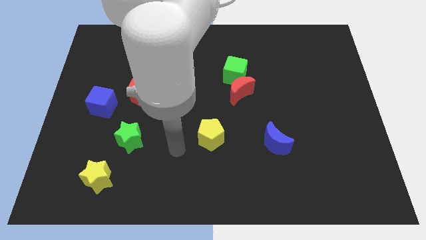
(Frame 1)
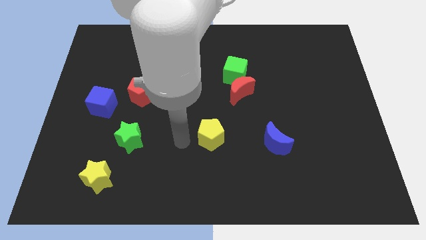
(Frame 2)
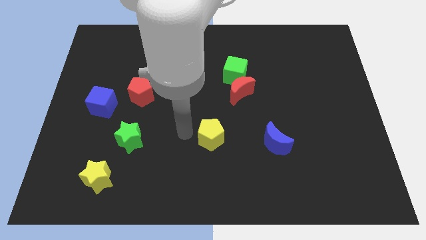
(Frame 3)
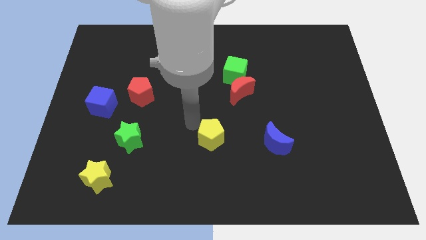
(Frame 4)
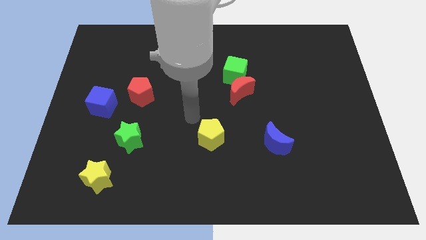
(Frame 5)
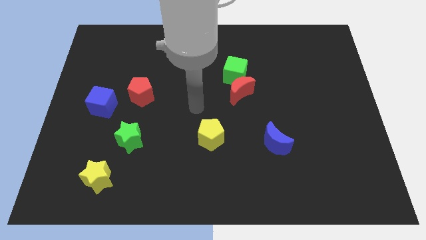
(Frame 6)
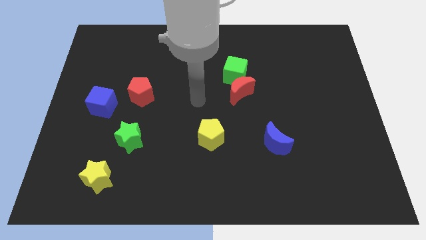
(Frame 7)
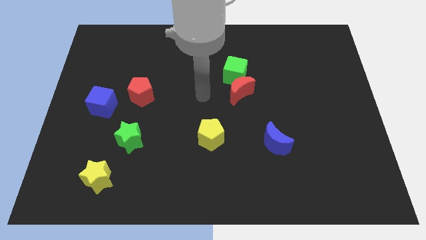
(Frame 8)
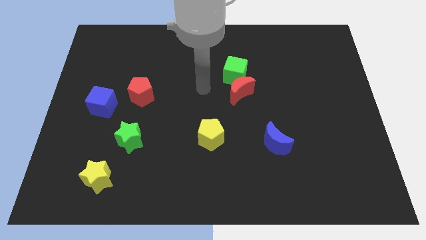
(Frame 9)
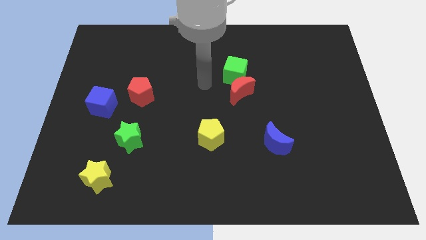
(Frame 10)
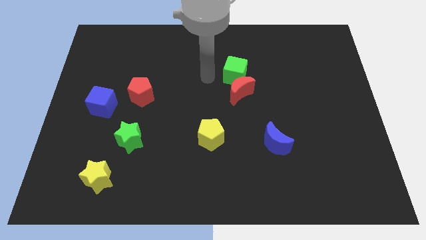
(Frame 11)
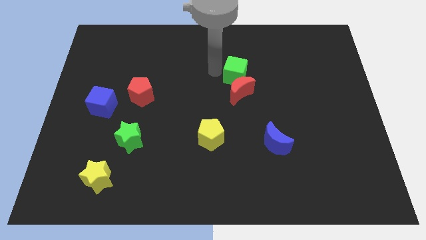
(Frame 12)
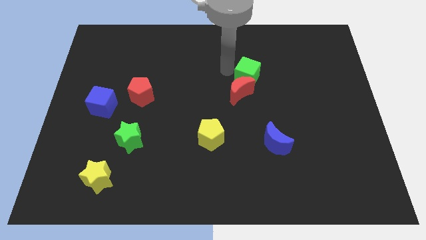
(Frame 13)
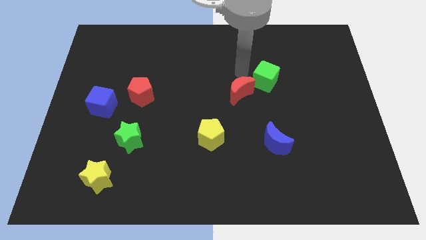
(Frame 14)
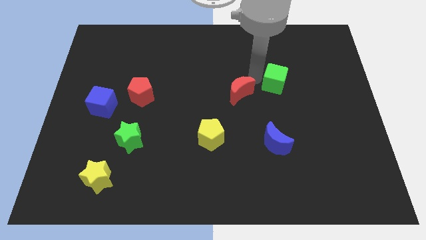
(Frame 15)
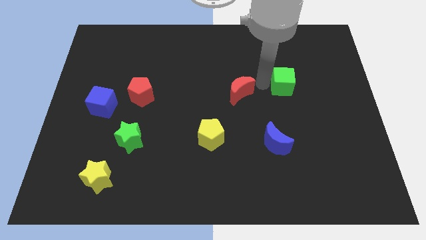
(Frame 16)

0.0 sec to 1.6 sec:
pull the red moon apart from the green cube

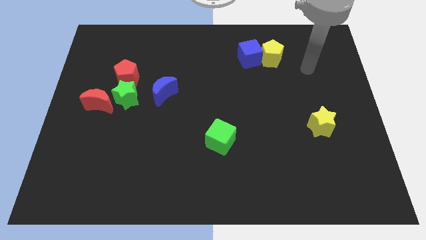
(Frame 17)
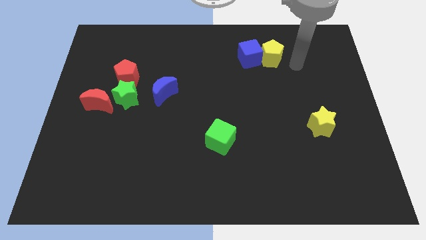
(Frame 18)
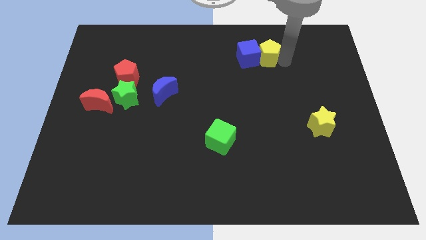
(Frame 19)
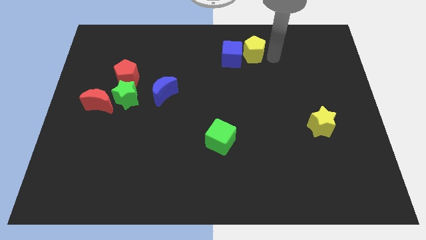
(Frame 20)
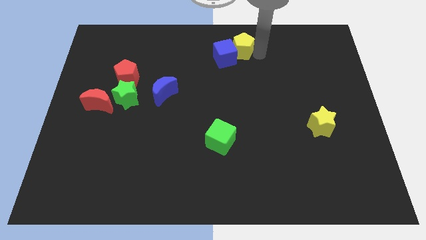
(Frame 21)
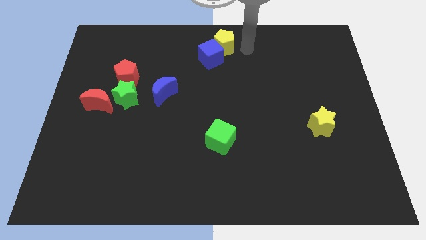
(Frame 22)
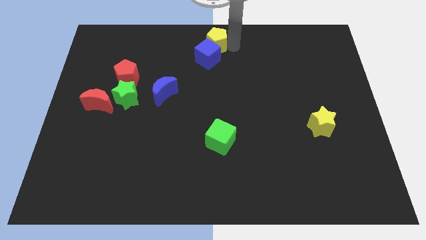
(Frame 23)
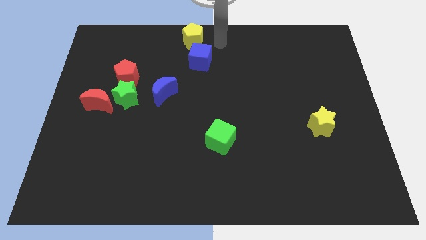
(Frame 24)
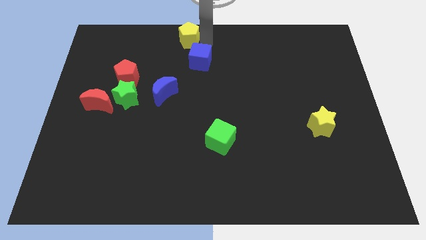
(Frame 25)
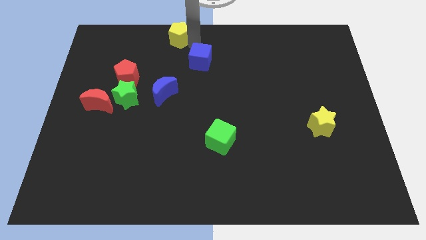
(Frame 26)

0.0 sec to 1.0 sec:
move the blue cube away from the yellow pentagon

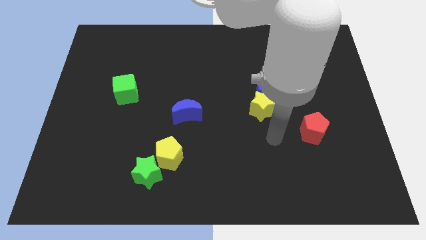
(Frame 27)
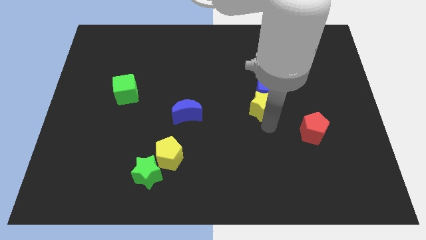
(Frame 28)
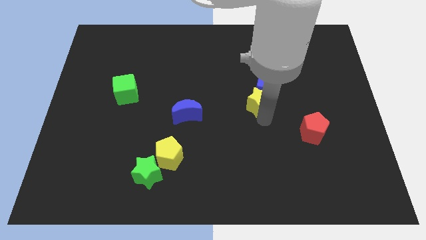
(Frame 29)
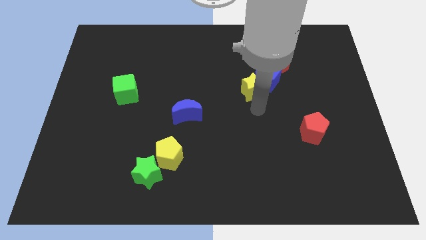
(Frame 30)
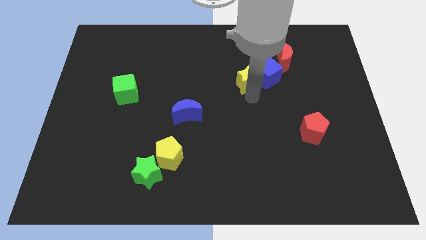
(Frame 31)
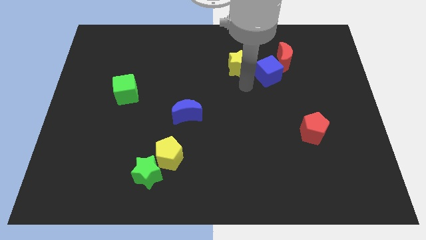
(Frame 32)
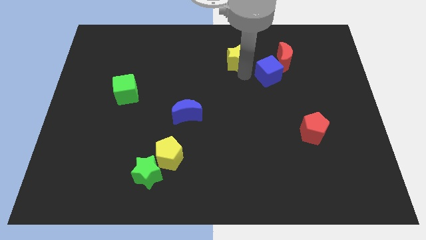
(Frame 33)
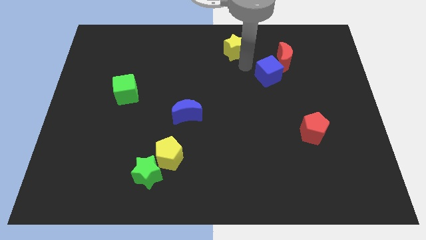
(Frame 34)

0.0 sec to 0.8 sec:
move the blue cube away from the yellow star

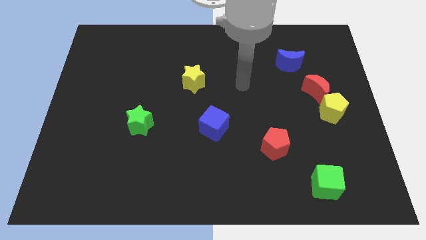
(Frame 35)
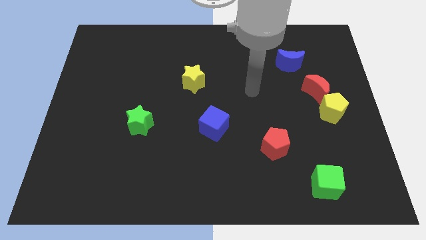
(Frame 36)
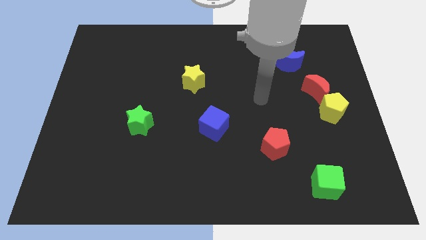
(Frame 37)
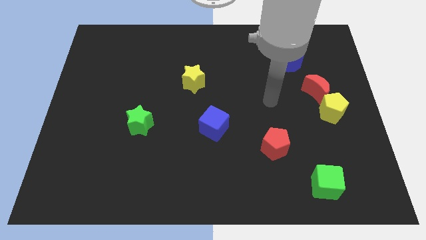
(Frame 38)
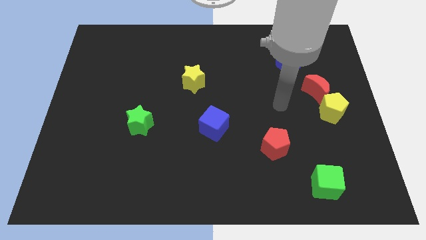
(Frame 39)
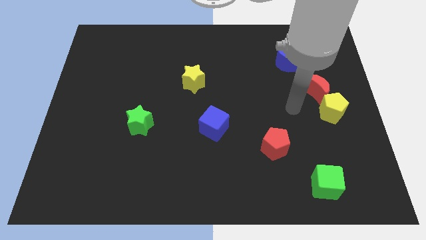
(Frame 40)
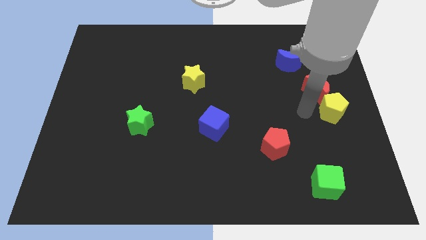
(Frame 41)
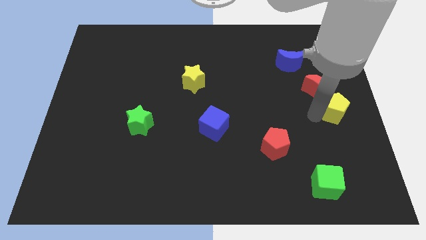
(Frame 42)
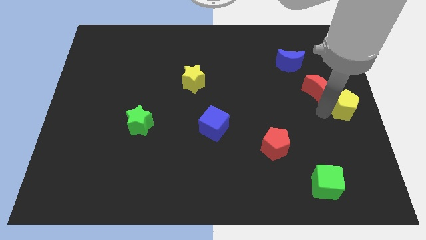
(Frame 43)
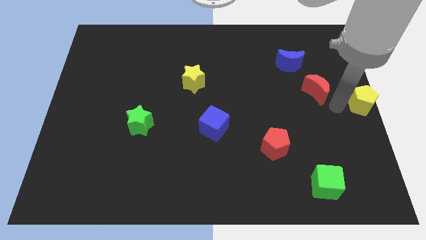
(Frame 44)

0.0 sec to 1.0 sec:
pull the red moon apart from the yellow pentagon

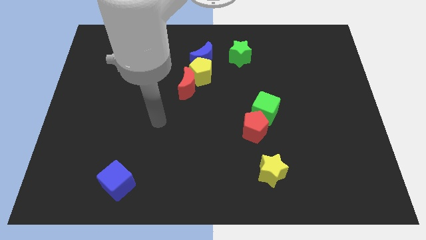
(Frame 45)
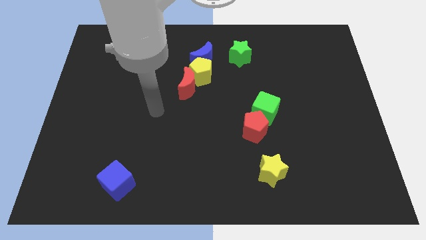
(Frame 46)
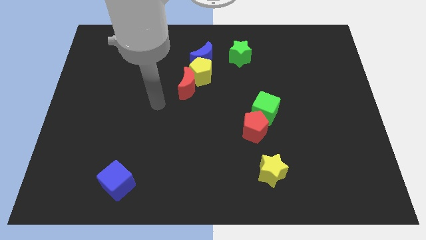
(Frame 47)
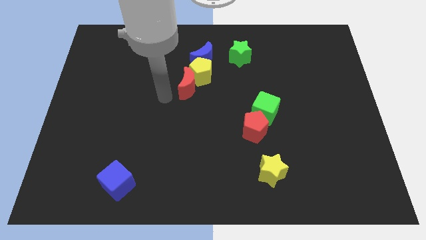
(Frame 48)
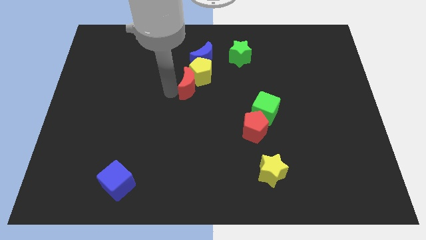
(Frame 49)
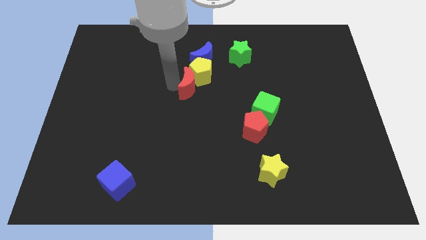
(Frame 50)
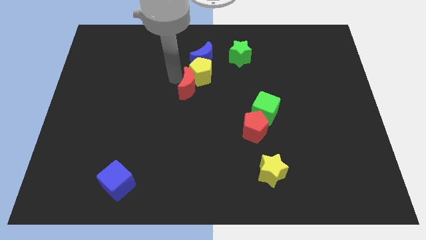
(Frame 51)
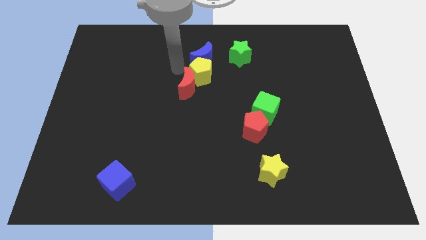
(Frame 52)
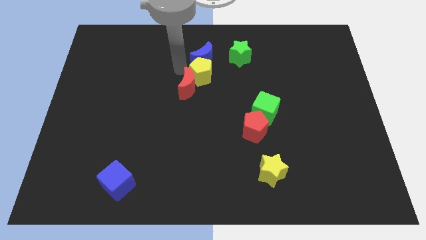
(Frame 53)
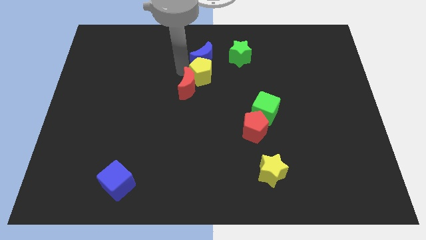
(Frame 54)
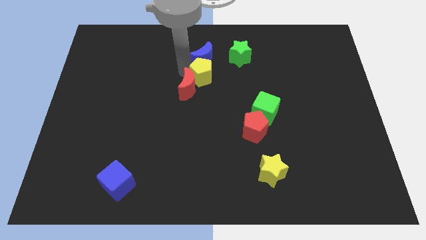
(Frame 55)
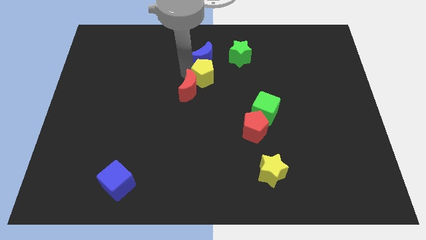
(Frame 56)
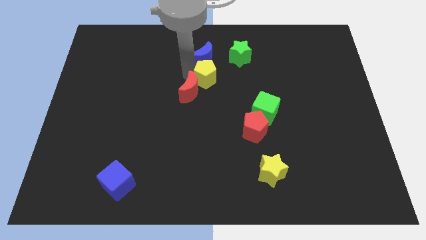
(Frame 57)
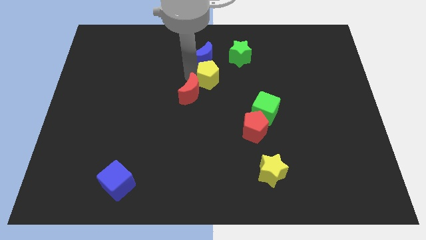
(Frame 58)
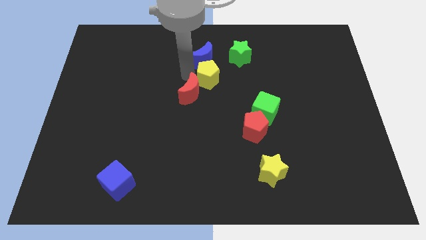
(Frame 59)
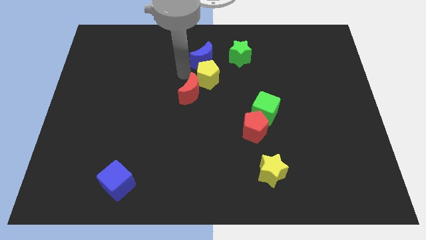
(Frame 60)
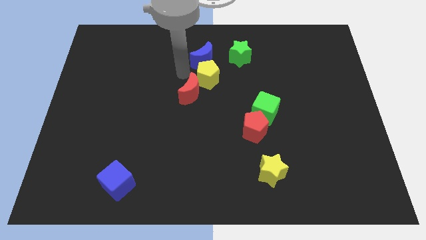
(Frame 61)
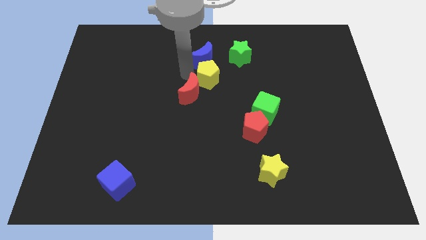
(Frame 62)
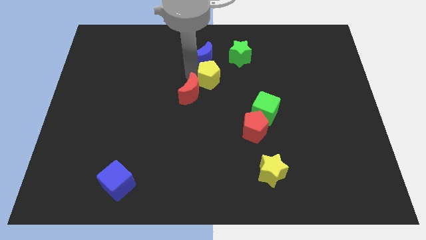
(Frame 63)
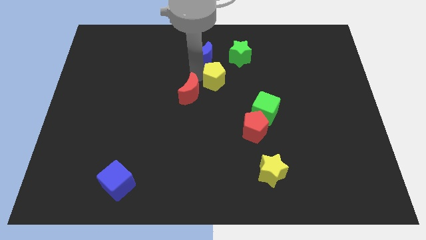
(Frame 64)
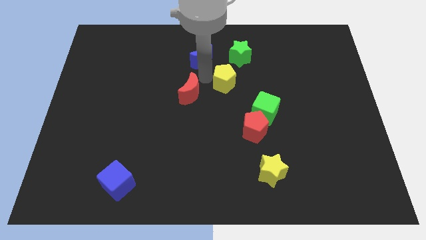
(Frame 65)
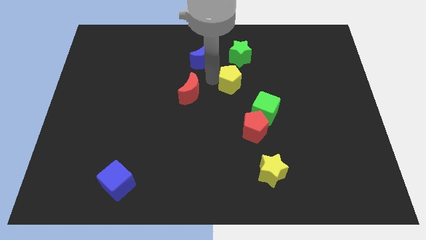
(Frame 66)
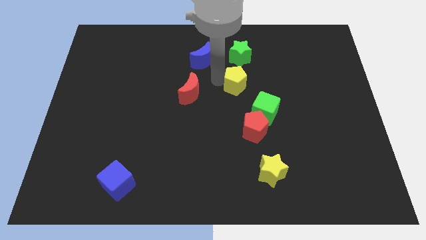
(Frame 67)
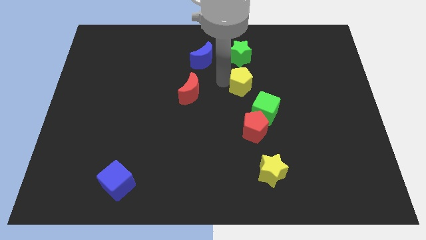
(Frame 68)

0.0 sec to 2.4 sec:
separate the yellow pentagon from the blue moon and red moon

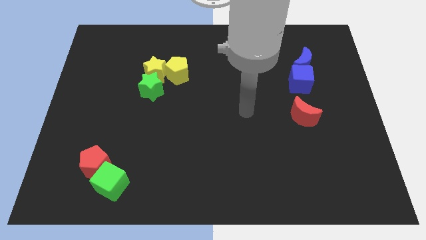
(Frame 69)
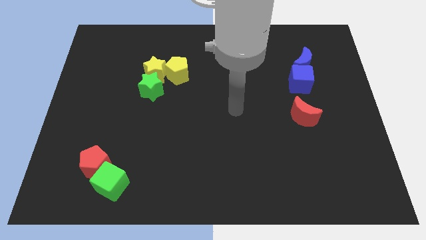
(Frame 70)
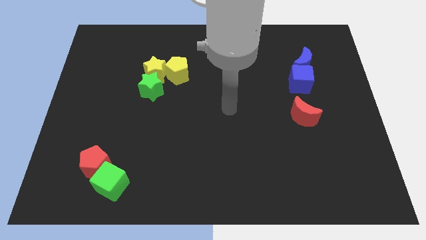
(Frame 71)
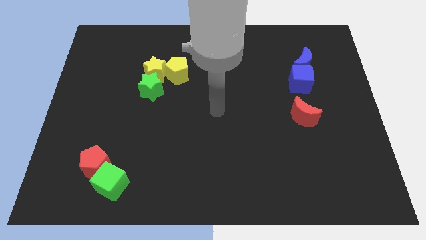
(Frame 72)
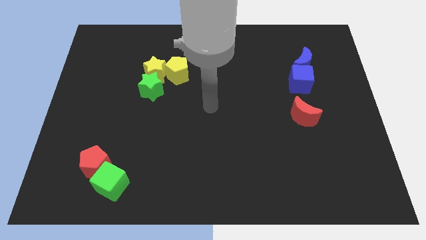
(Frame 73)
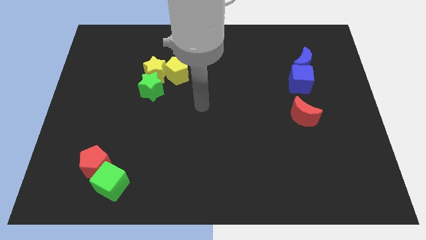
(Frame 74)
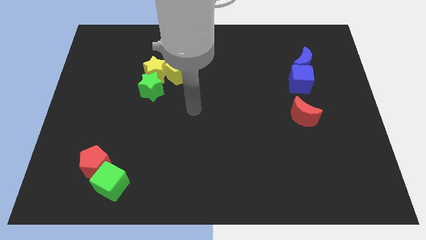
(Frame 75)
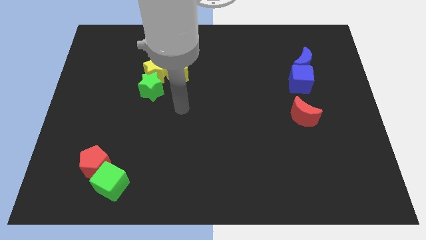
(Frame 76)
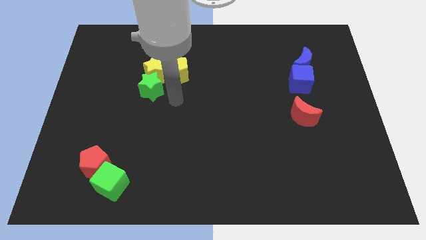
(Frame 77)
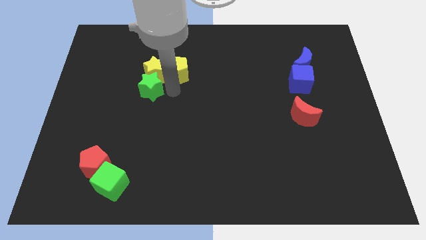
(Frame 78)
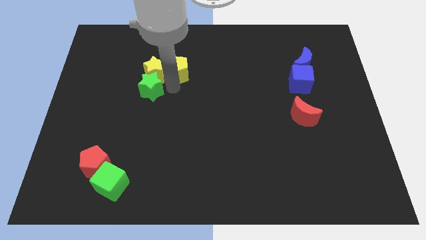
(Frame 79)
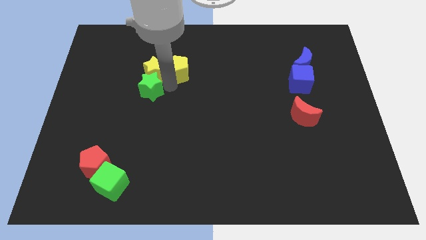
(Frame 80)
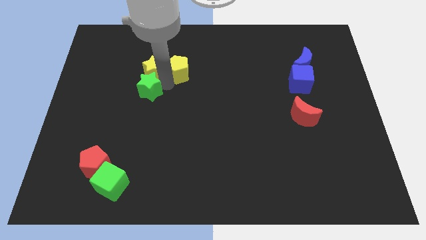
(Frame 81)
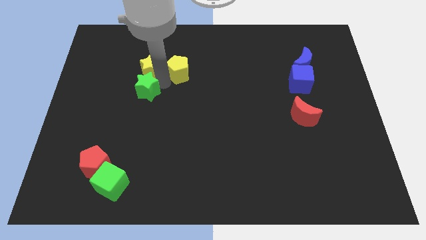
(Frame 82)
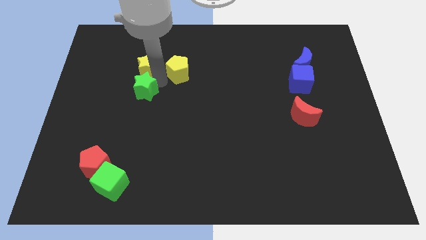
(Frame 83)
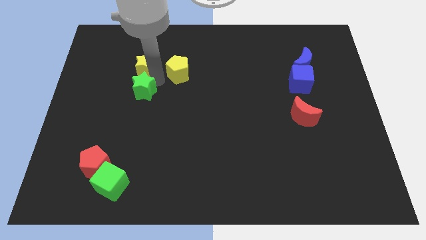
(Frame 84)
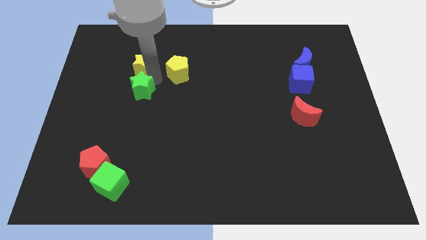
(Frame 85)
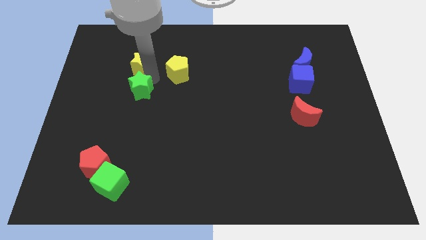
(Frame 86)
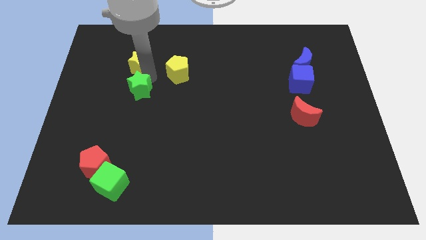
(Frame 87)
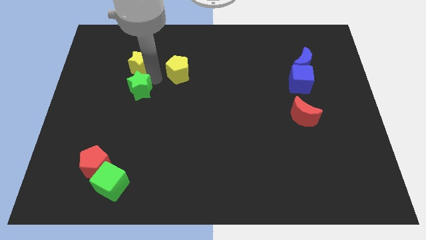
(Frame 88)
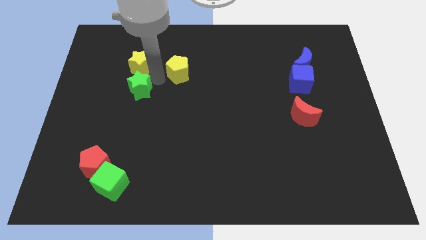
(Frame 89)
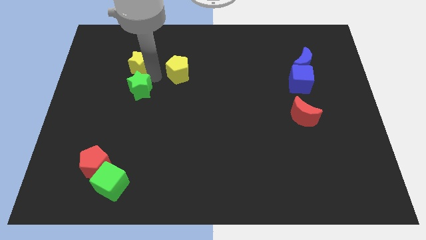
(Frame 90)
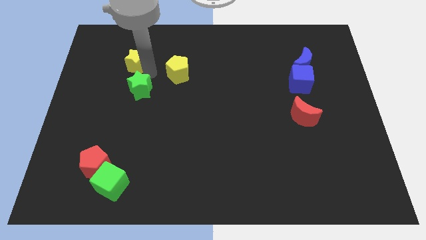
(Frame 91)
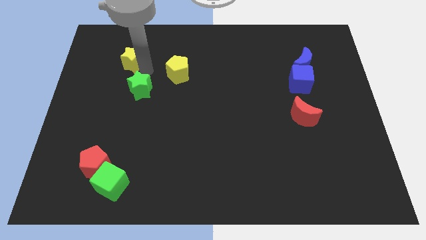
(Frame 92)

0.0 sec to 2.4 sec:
separate the yellow star from the green star and yellow pentagon
